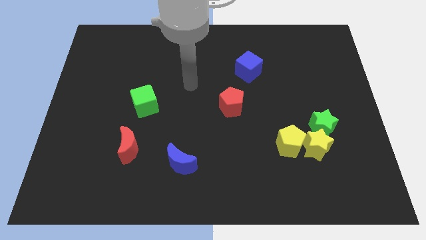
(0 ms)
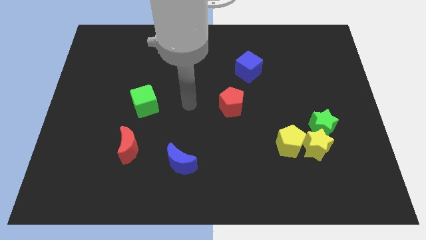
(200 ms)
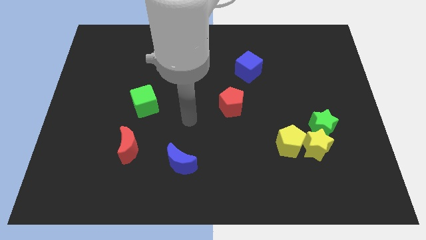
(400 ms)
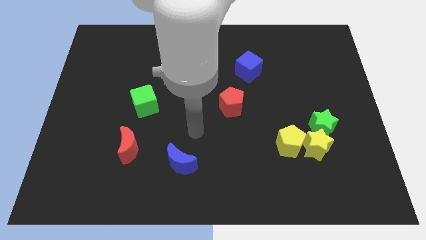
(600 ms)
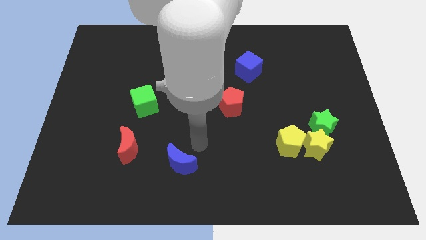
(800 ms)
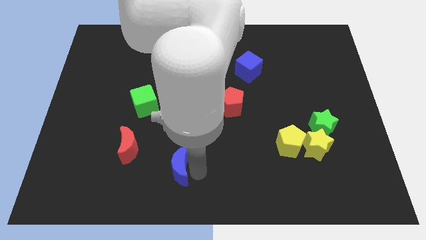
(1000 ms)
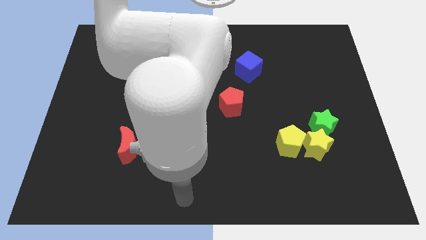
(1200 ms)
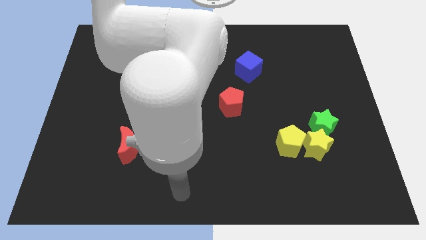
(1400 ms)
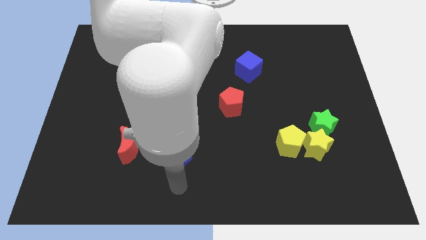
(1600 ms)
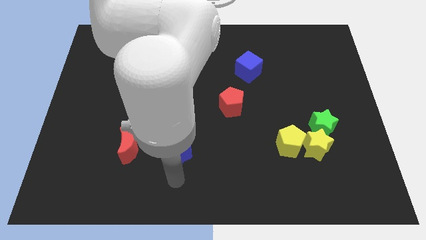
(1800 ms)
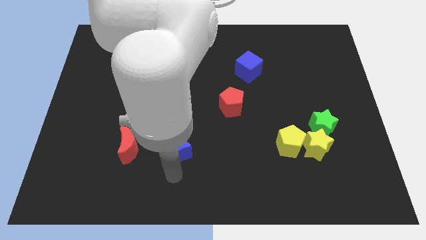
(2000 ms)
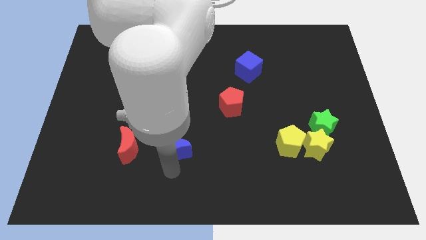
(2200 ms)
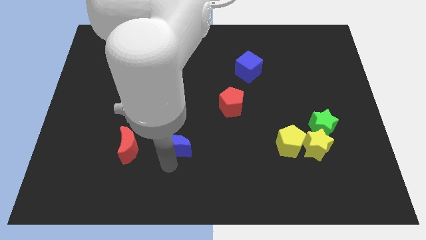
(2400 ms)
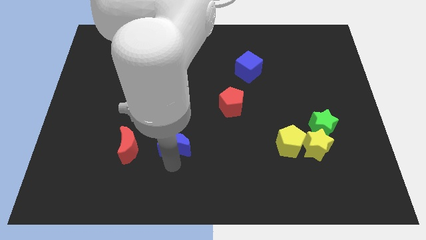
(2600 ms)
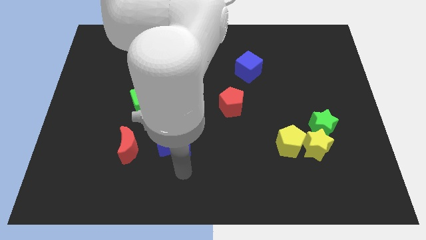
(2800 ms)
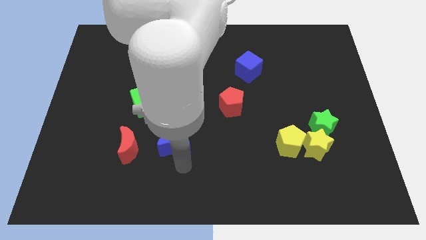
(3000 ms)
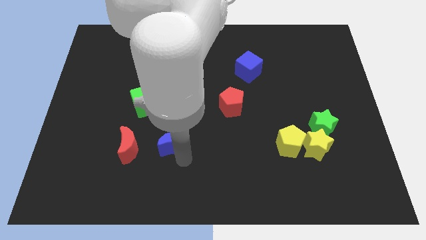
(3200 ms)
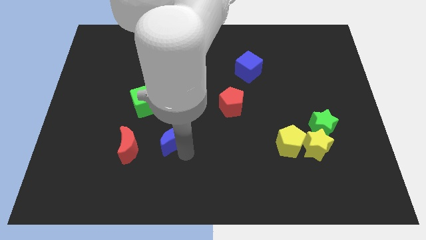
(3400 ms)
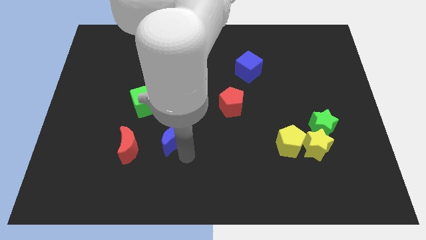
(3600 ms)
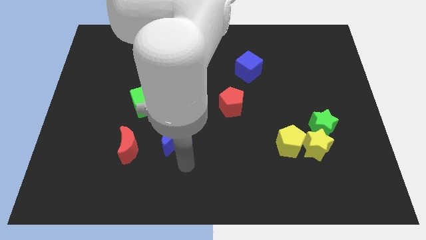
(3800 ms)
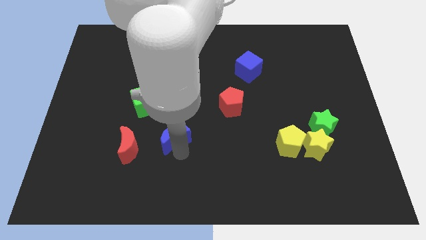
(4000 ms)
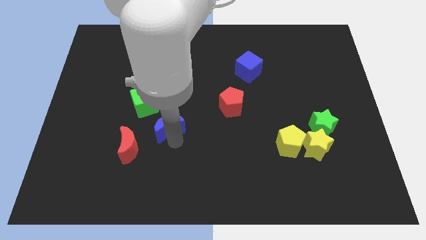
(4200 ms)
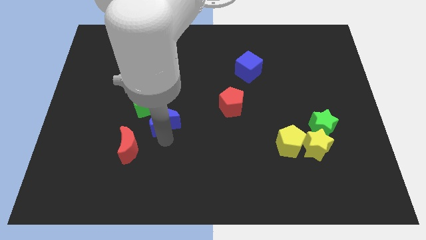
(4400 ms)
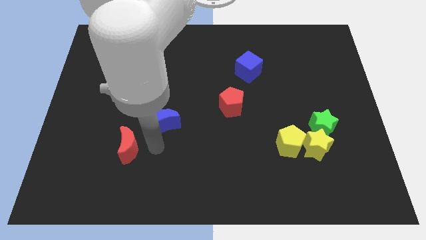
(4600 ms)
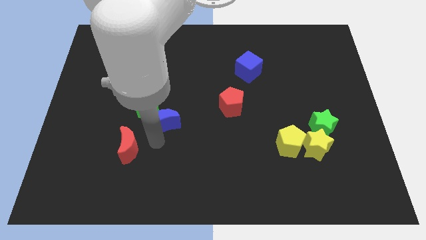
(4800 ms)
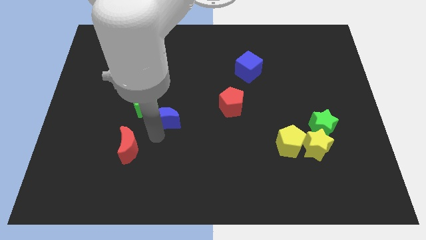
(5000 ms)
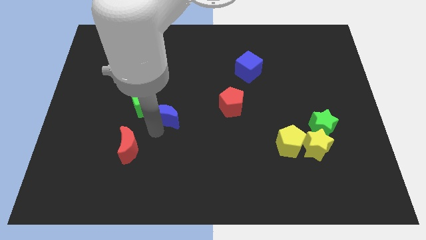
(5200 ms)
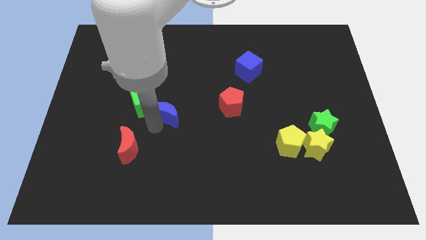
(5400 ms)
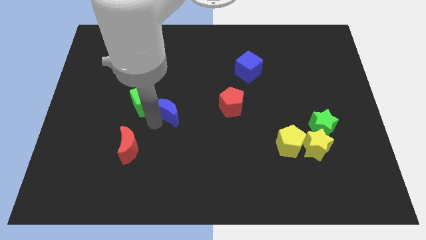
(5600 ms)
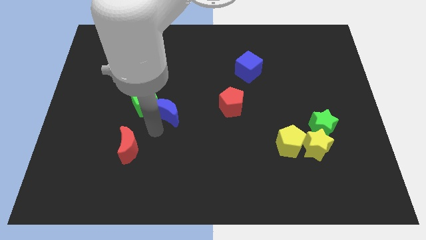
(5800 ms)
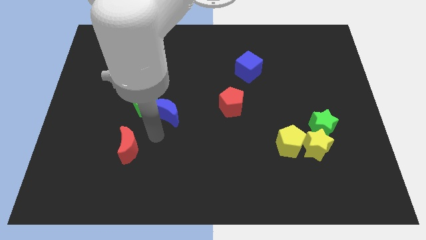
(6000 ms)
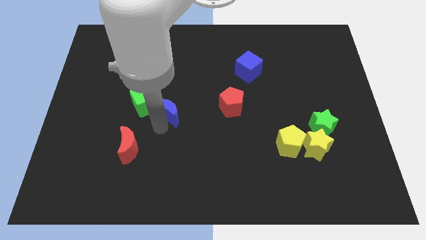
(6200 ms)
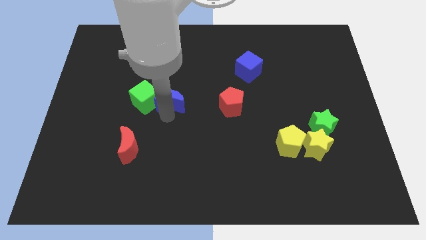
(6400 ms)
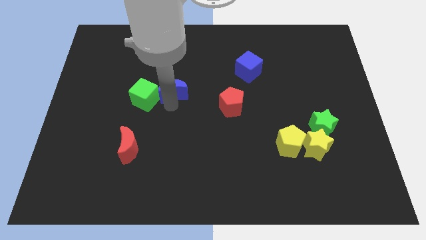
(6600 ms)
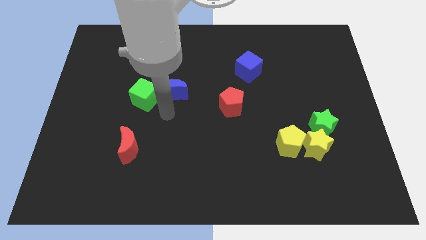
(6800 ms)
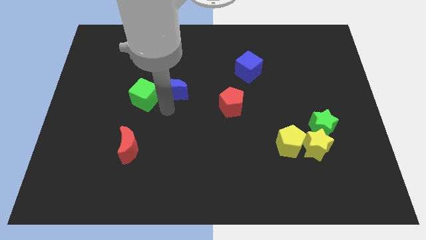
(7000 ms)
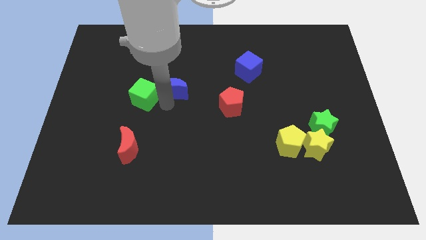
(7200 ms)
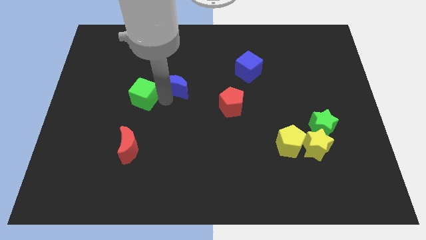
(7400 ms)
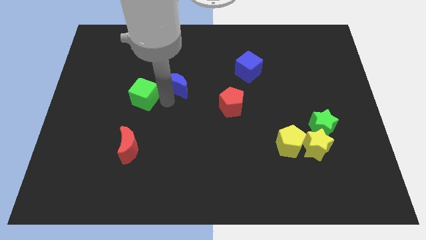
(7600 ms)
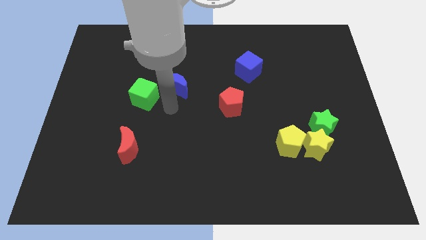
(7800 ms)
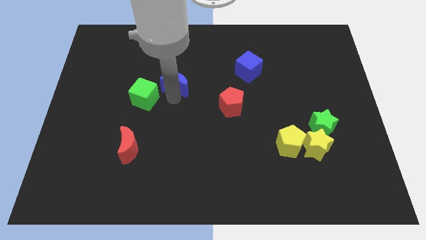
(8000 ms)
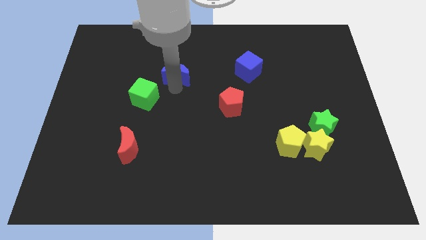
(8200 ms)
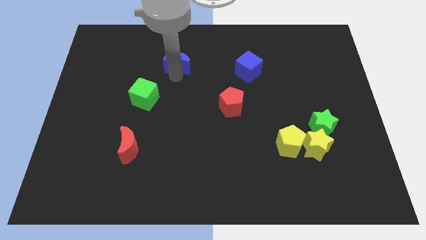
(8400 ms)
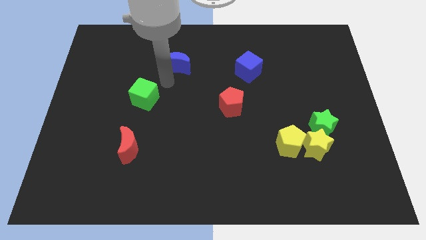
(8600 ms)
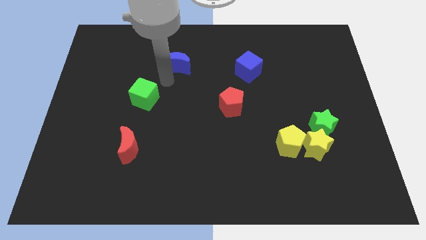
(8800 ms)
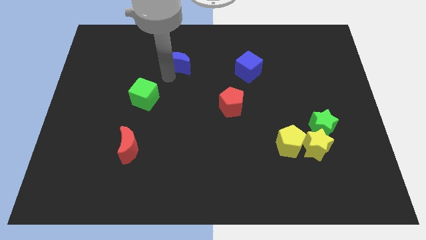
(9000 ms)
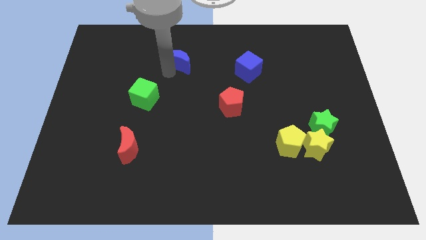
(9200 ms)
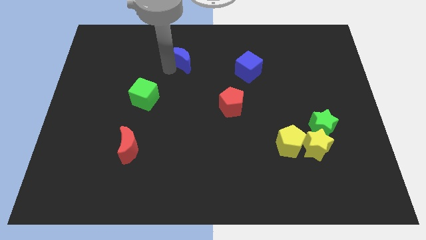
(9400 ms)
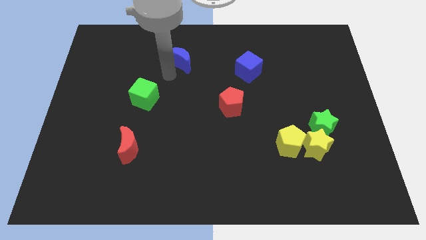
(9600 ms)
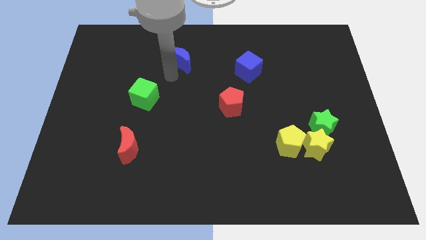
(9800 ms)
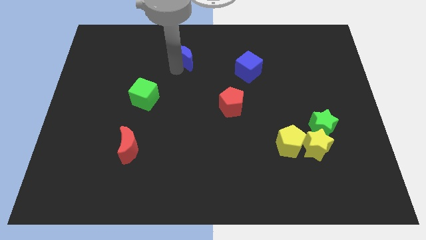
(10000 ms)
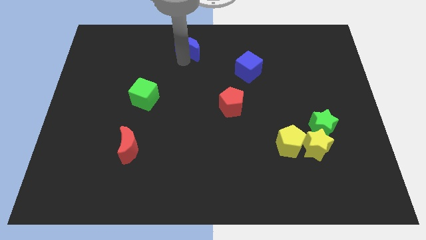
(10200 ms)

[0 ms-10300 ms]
push the blue moon to the towards your base

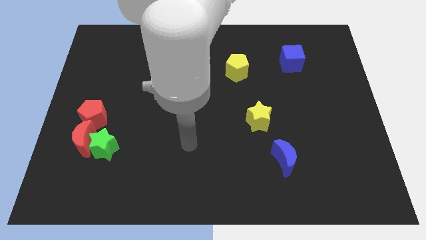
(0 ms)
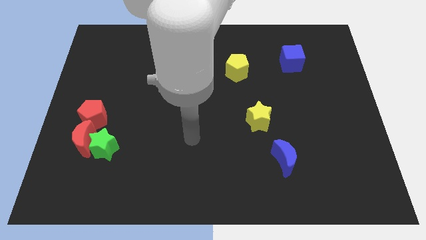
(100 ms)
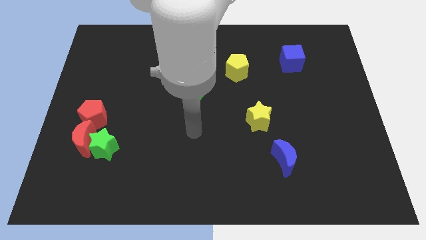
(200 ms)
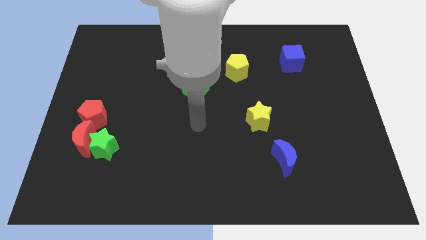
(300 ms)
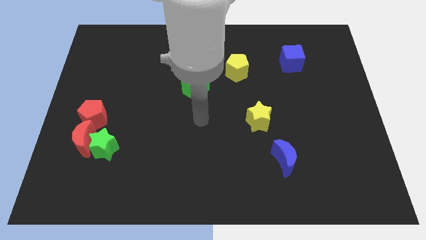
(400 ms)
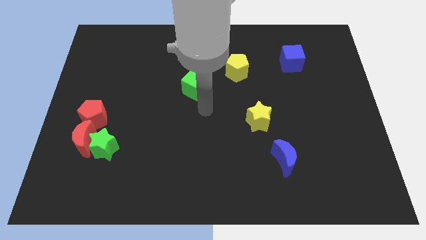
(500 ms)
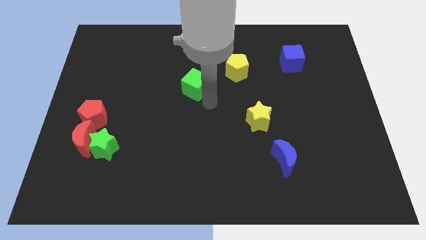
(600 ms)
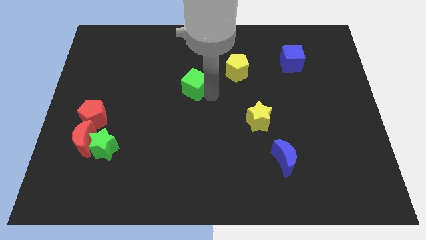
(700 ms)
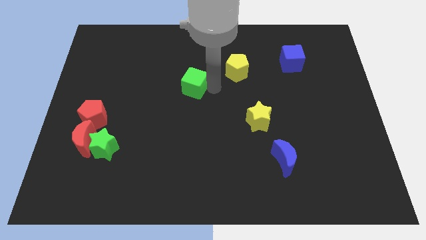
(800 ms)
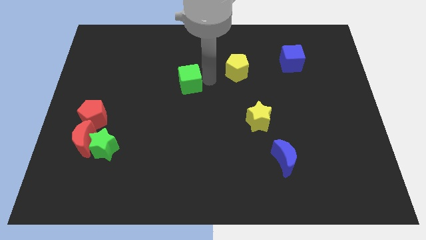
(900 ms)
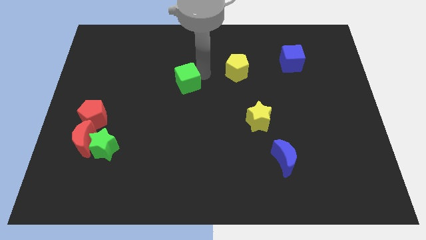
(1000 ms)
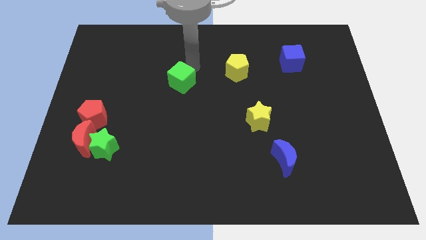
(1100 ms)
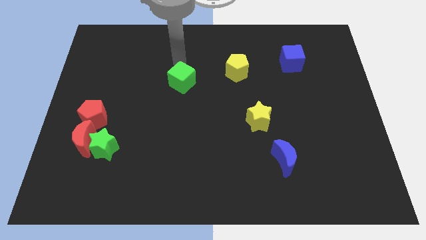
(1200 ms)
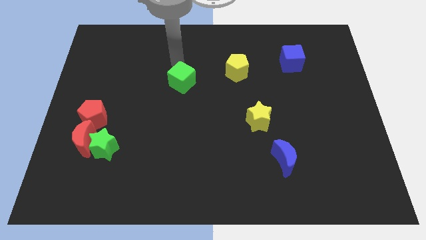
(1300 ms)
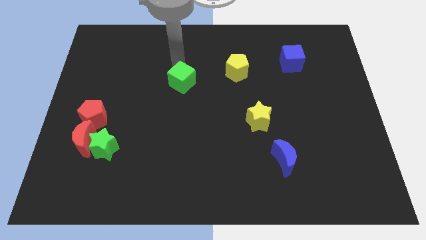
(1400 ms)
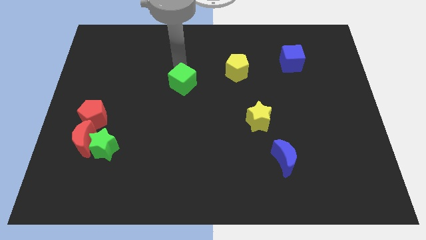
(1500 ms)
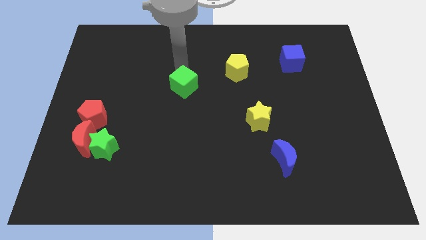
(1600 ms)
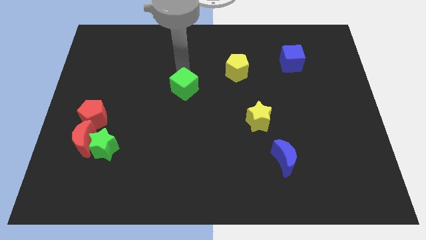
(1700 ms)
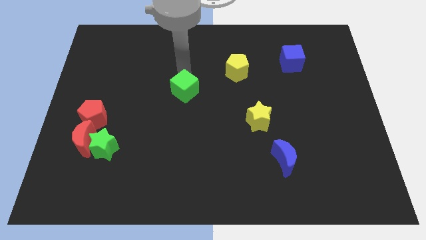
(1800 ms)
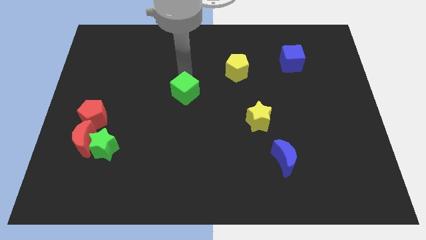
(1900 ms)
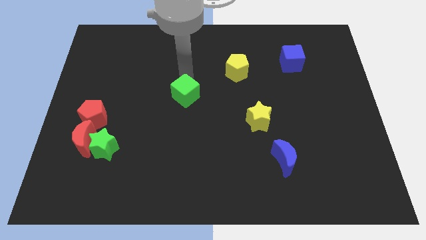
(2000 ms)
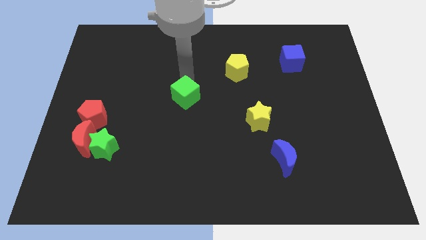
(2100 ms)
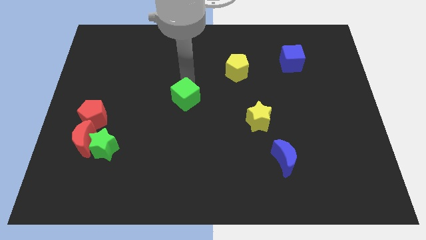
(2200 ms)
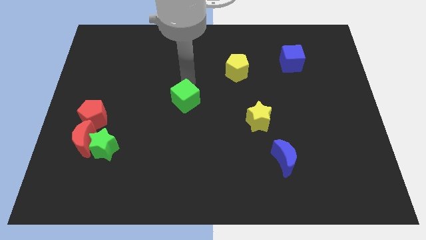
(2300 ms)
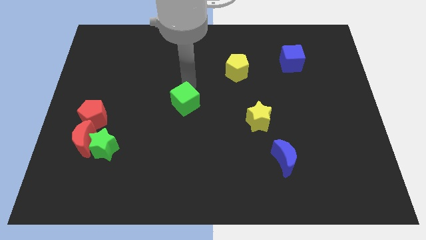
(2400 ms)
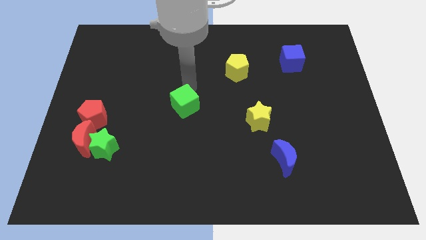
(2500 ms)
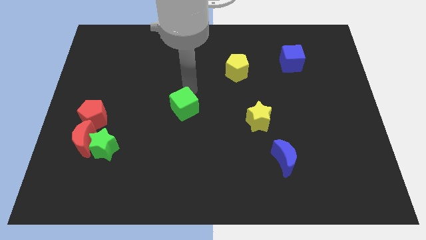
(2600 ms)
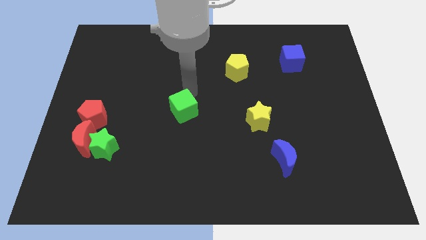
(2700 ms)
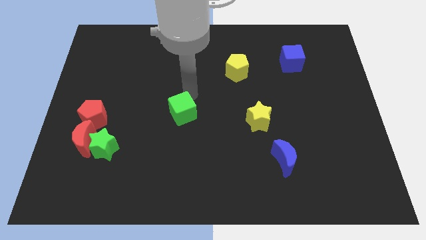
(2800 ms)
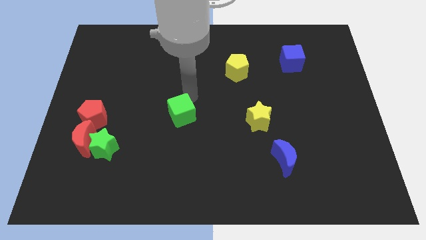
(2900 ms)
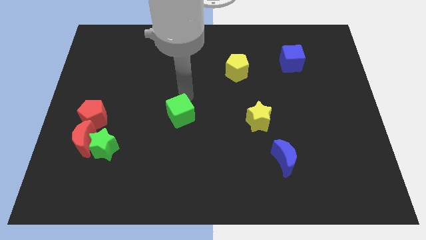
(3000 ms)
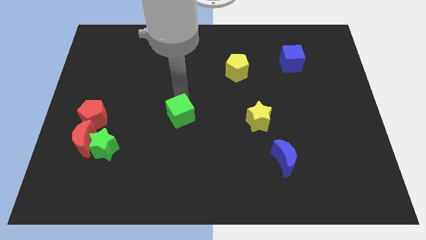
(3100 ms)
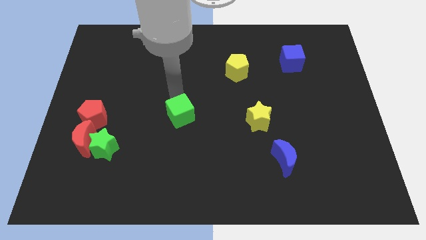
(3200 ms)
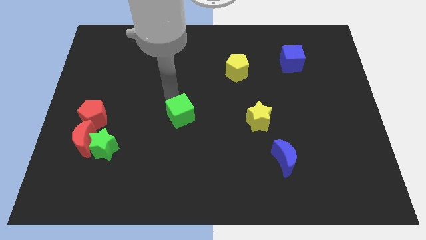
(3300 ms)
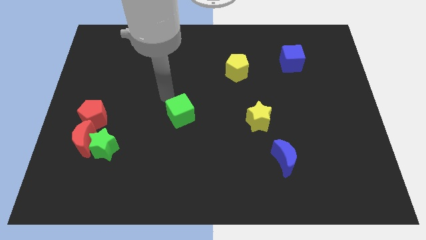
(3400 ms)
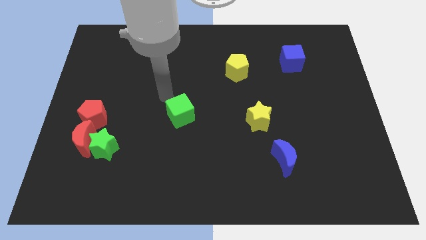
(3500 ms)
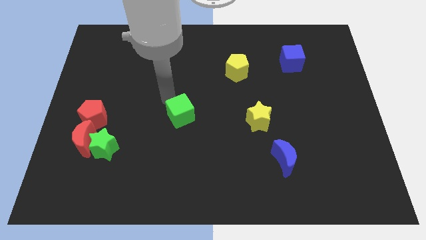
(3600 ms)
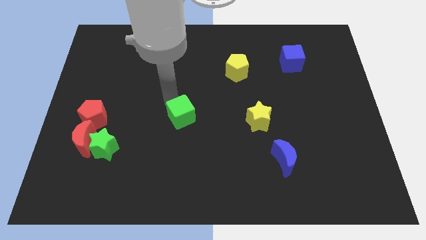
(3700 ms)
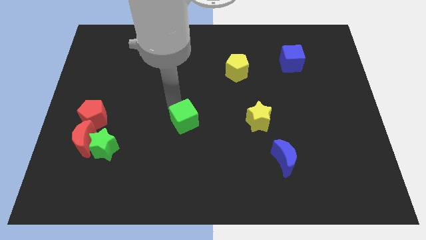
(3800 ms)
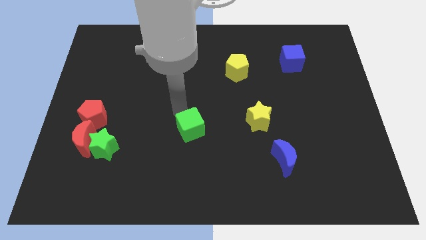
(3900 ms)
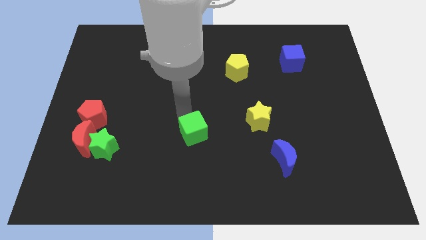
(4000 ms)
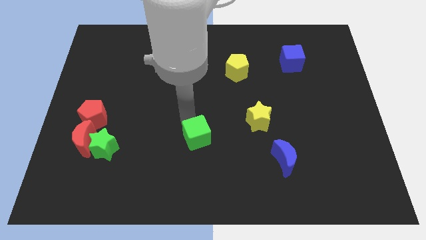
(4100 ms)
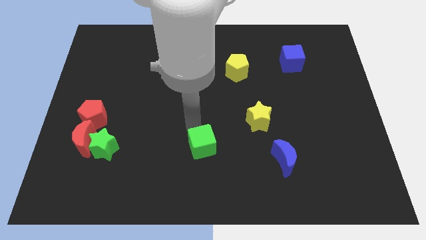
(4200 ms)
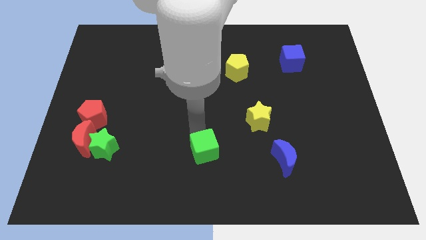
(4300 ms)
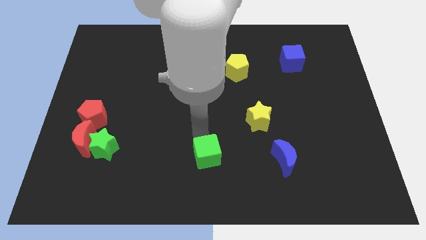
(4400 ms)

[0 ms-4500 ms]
move the green cube to the bottom
